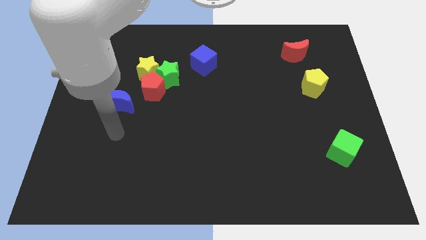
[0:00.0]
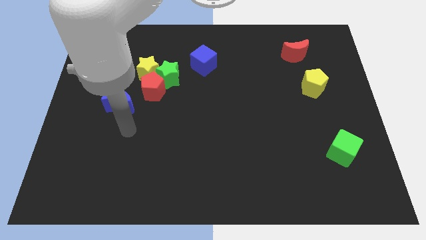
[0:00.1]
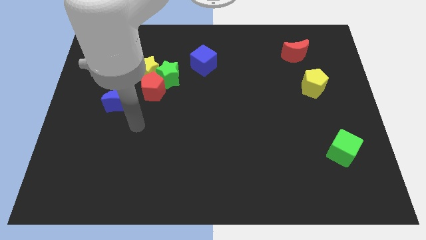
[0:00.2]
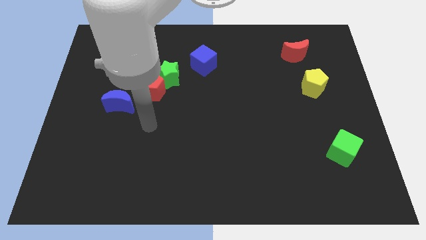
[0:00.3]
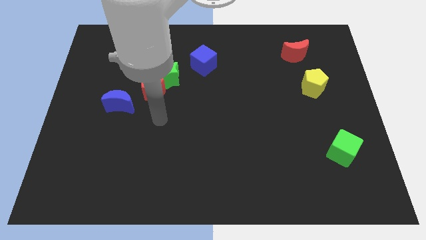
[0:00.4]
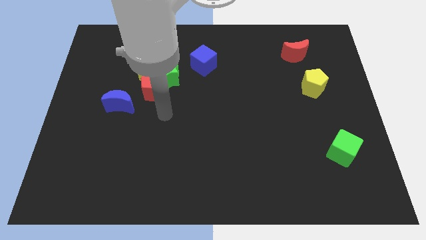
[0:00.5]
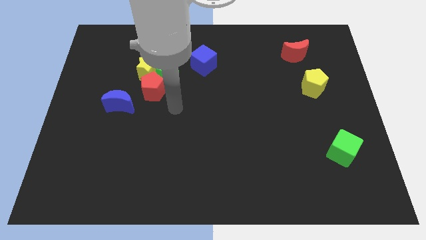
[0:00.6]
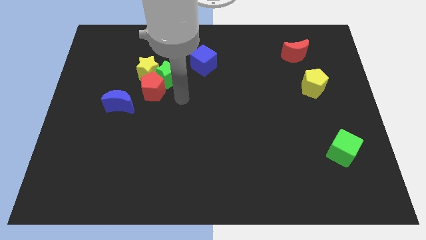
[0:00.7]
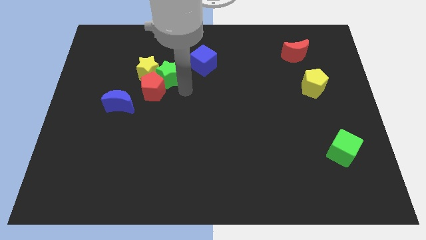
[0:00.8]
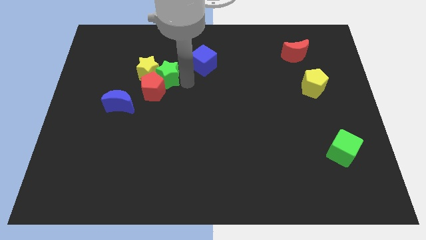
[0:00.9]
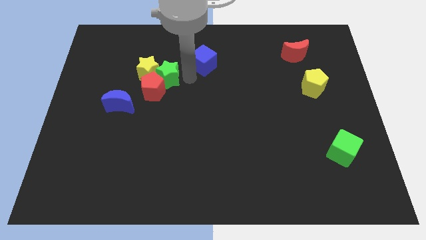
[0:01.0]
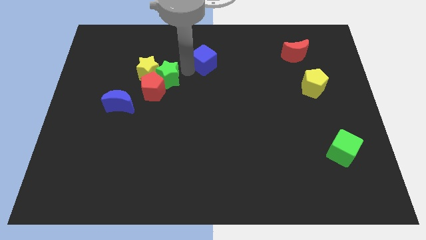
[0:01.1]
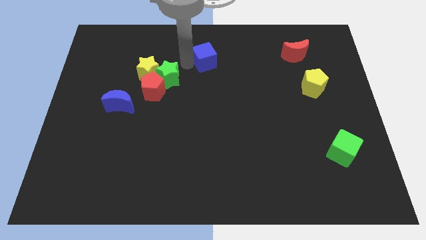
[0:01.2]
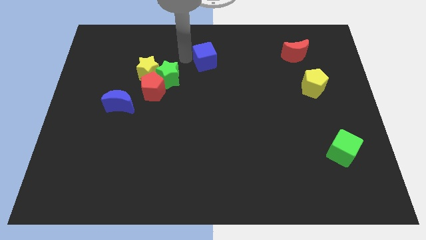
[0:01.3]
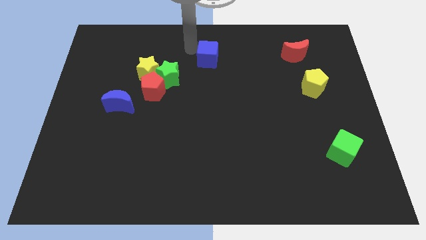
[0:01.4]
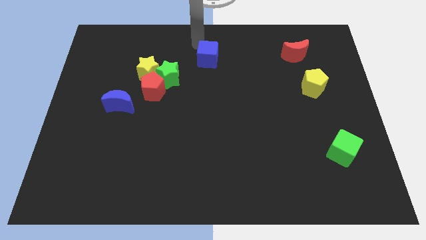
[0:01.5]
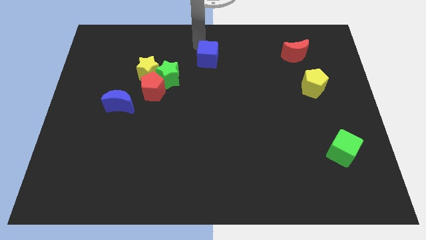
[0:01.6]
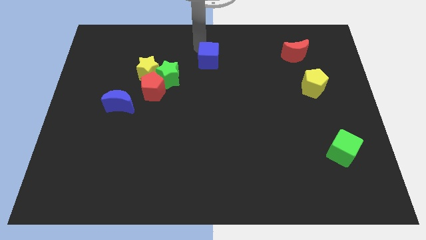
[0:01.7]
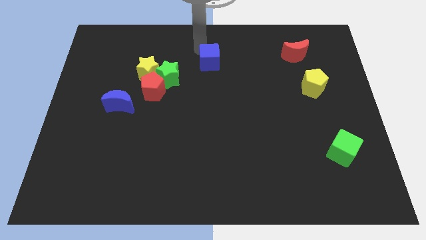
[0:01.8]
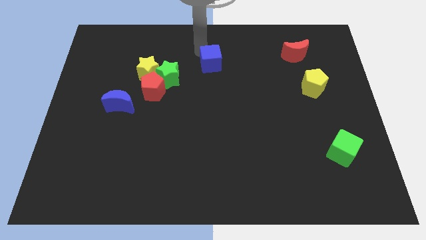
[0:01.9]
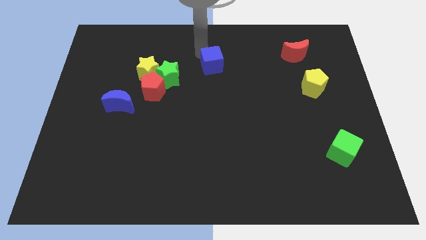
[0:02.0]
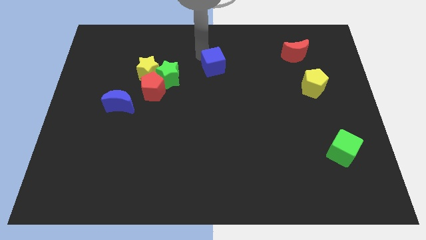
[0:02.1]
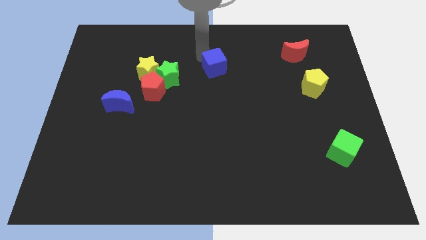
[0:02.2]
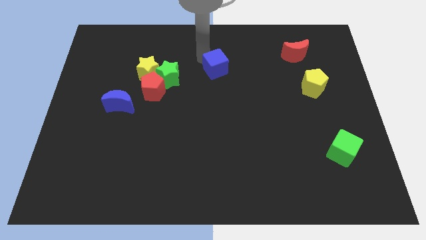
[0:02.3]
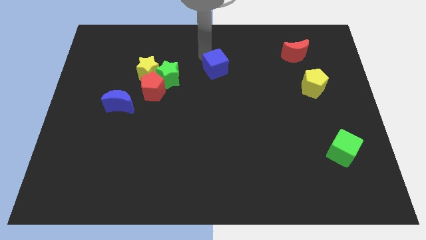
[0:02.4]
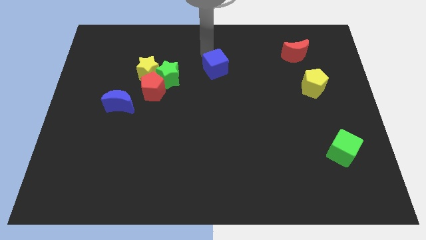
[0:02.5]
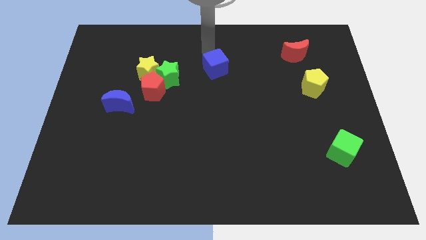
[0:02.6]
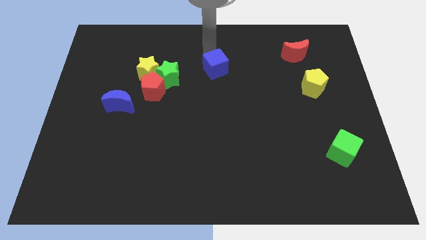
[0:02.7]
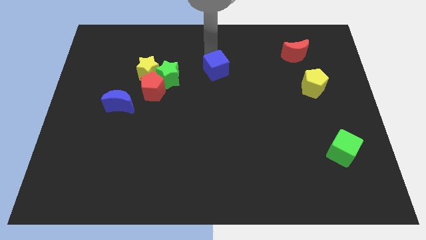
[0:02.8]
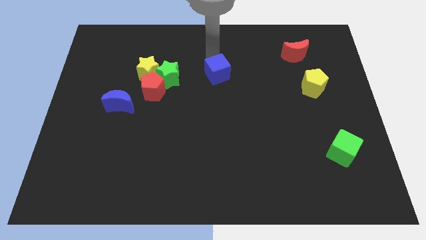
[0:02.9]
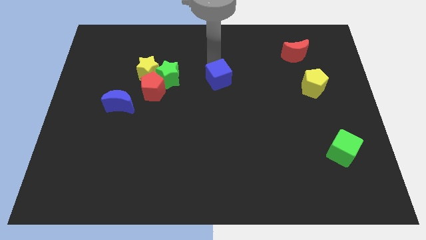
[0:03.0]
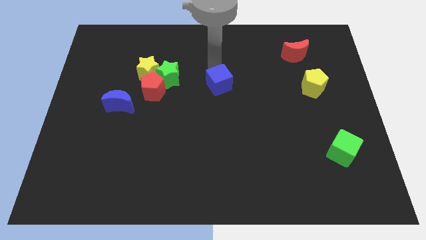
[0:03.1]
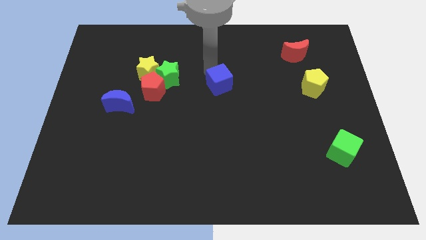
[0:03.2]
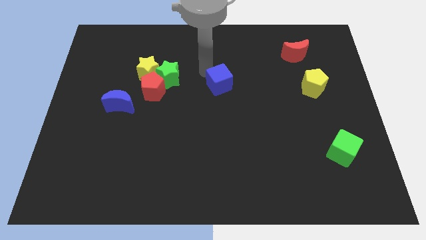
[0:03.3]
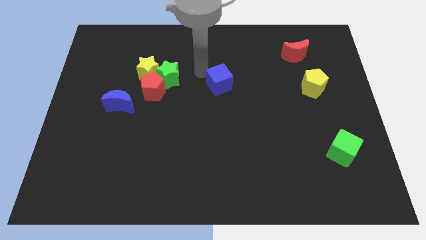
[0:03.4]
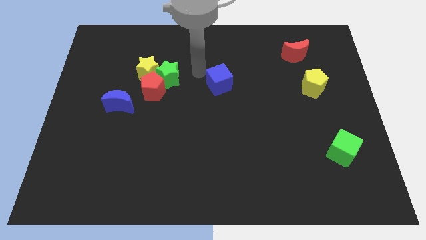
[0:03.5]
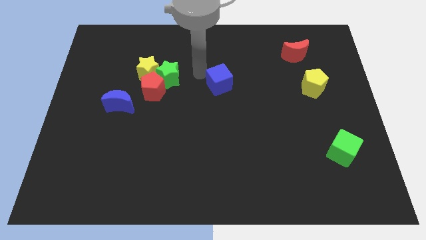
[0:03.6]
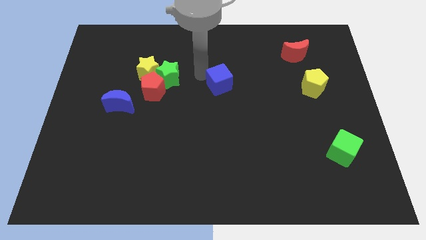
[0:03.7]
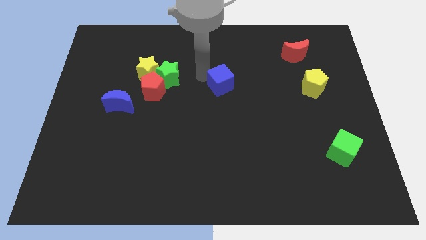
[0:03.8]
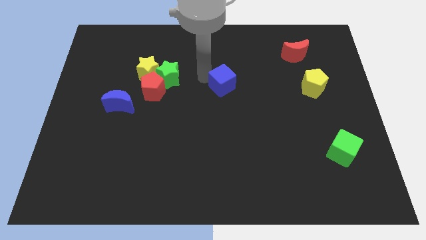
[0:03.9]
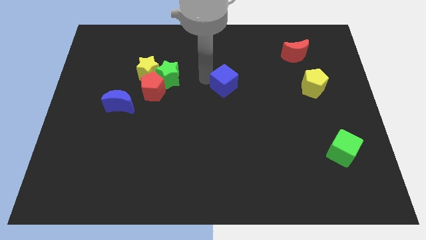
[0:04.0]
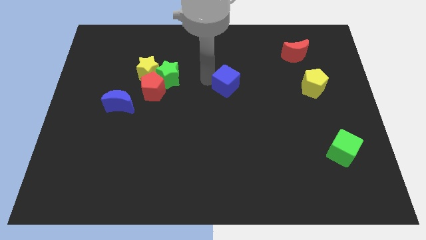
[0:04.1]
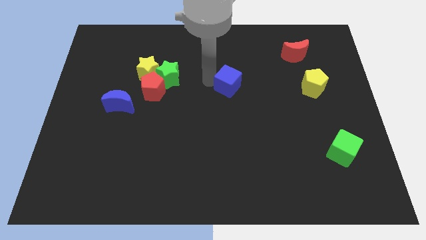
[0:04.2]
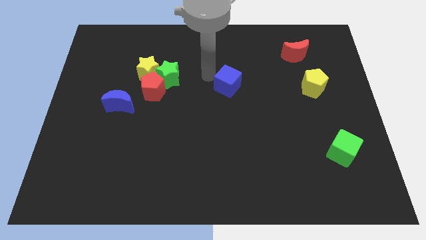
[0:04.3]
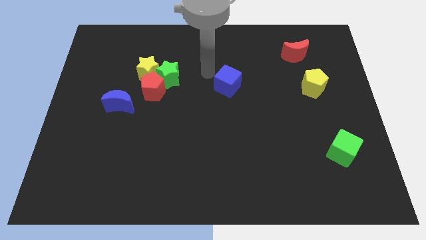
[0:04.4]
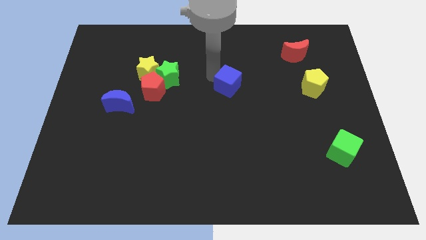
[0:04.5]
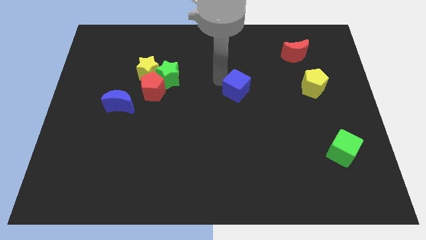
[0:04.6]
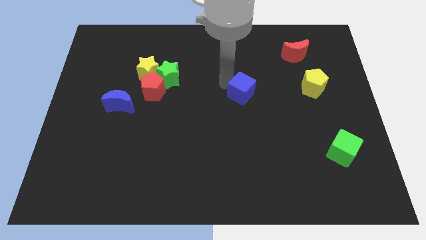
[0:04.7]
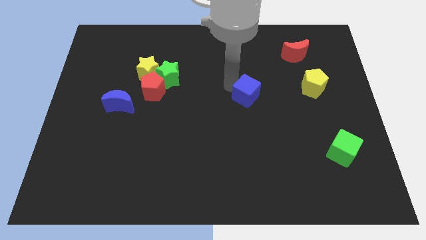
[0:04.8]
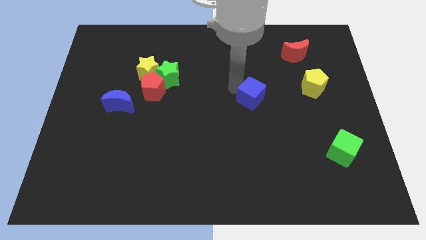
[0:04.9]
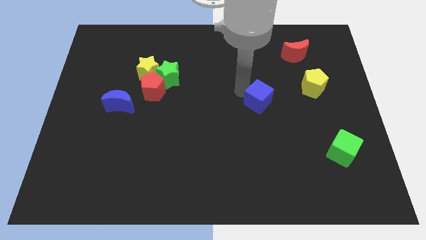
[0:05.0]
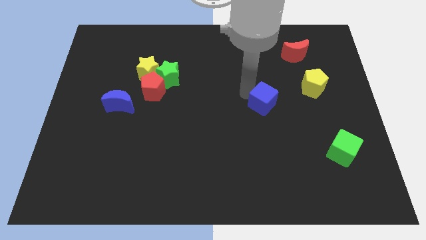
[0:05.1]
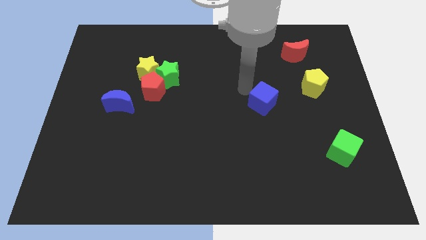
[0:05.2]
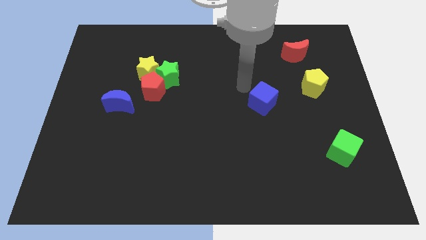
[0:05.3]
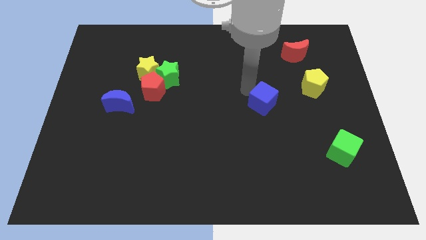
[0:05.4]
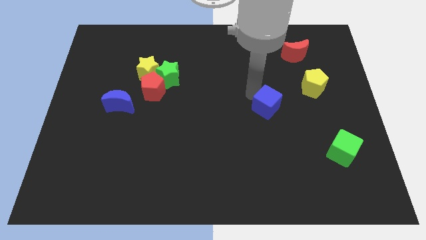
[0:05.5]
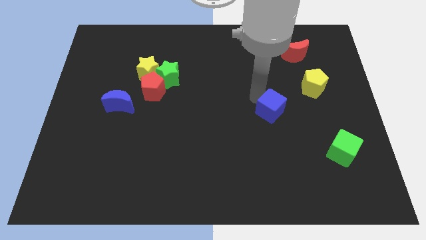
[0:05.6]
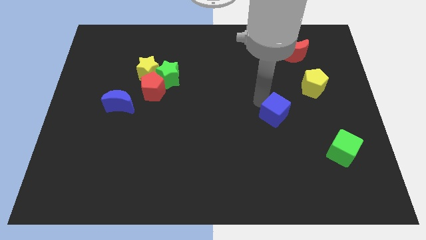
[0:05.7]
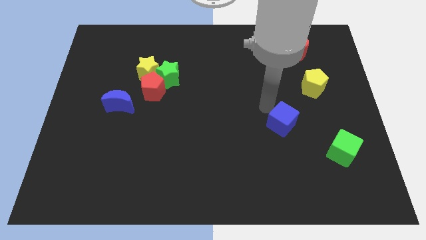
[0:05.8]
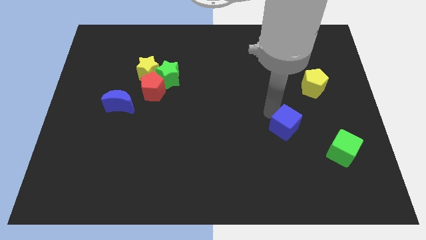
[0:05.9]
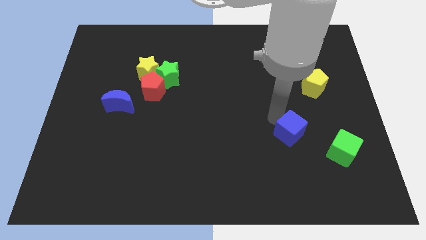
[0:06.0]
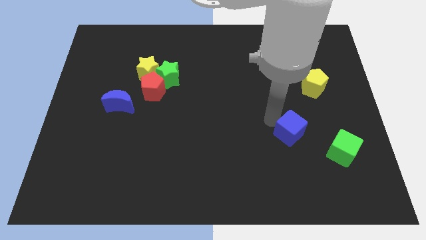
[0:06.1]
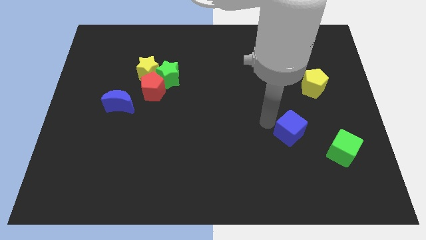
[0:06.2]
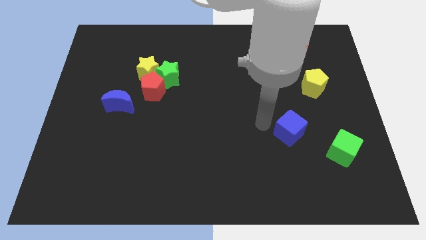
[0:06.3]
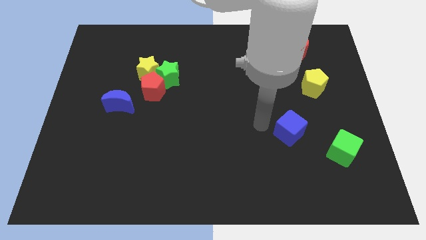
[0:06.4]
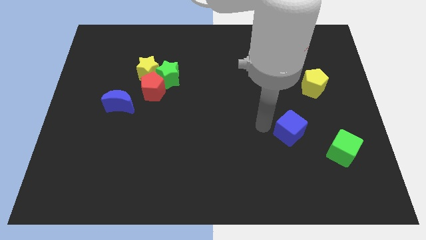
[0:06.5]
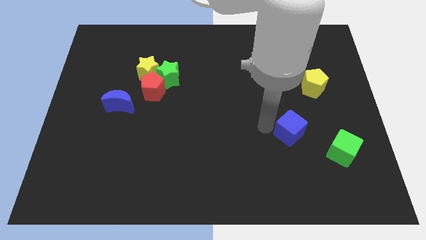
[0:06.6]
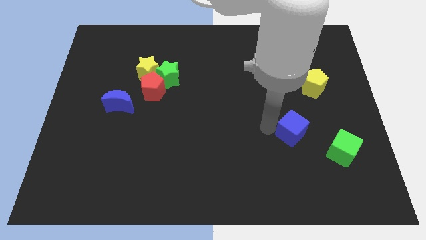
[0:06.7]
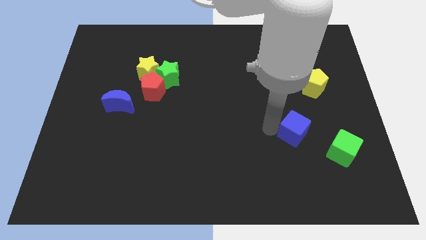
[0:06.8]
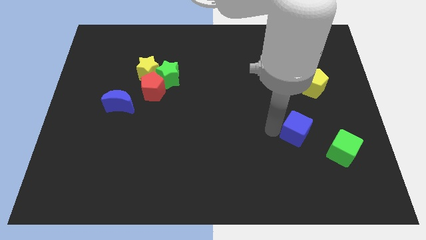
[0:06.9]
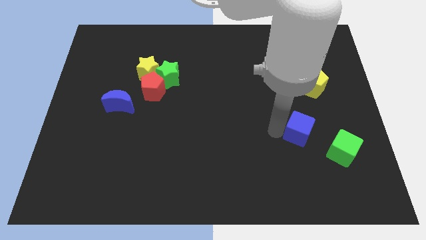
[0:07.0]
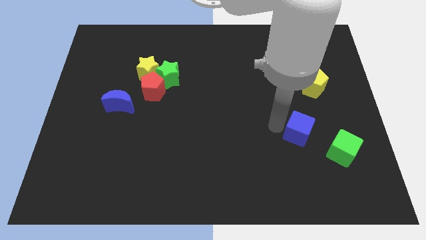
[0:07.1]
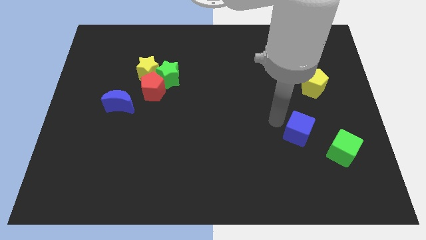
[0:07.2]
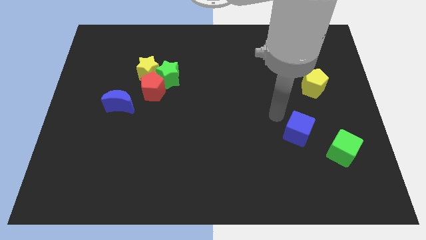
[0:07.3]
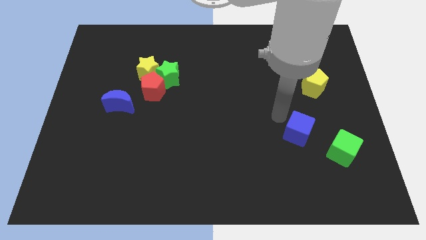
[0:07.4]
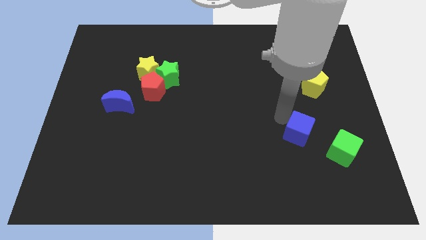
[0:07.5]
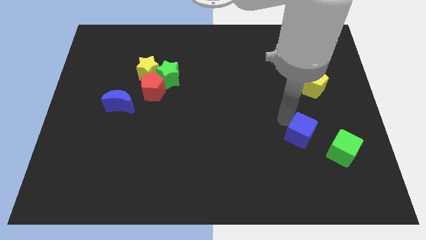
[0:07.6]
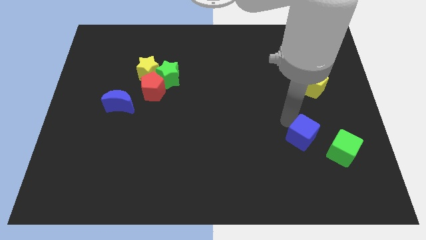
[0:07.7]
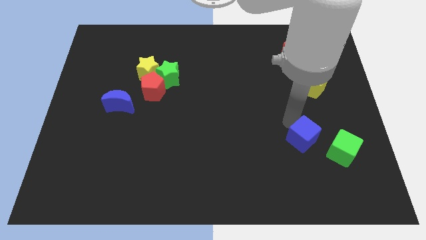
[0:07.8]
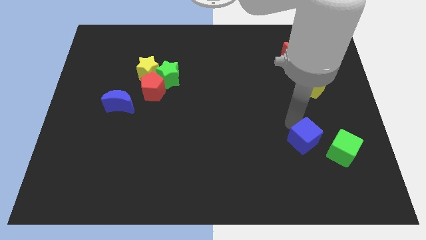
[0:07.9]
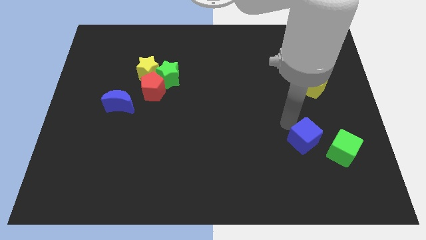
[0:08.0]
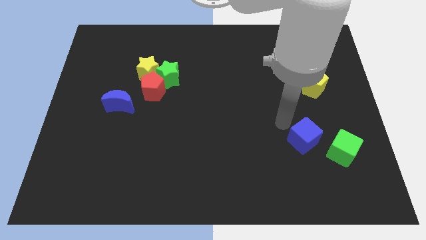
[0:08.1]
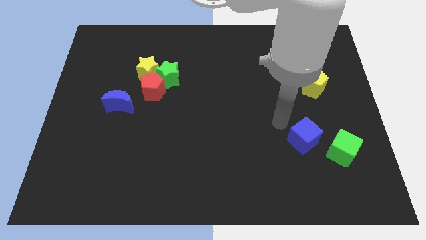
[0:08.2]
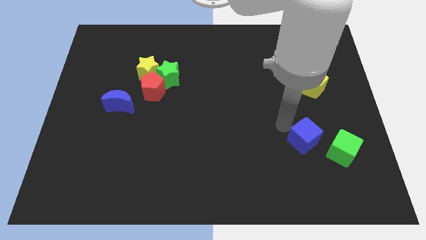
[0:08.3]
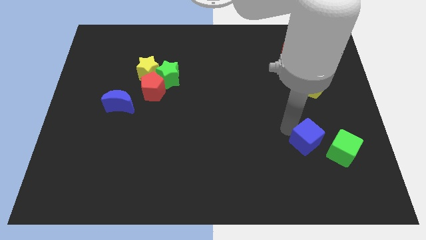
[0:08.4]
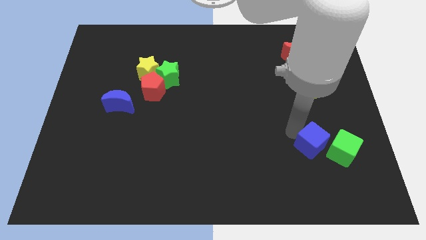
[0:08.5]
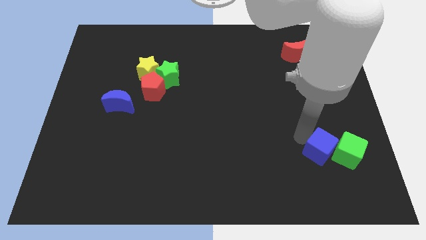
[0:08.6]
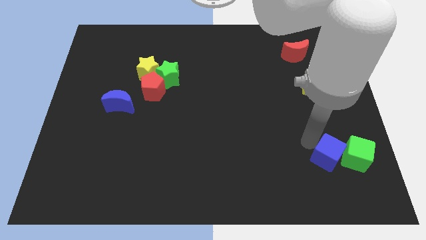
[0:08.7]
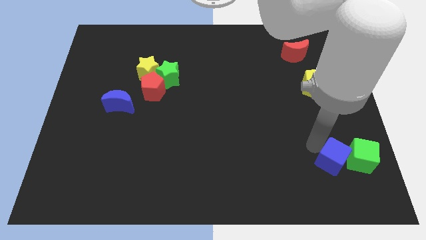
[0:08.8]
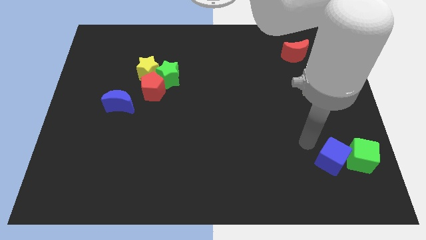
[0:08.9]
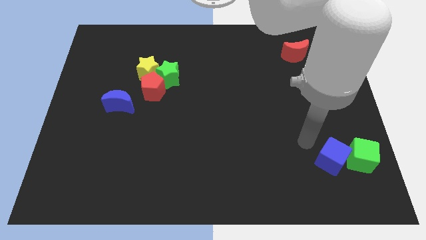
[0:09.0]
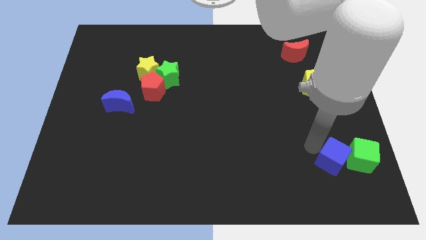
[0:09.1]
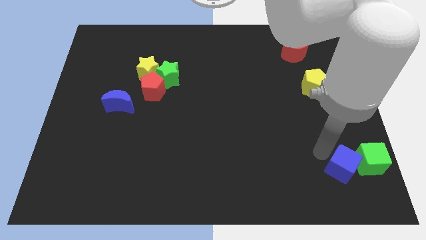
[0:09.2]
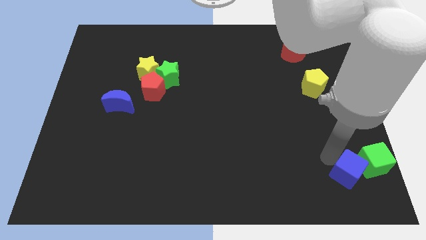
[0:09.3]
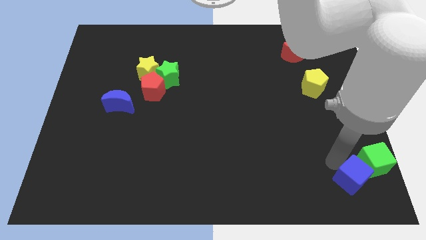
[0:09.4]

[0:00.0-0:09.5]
push the blue cube to the bottom right of the board
